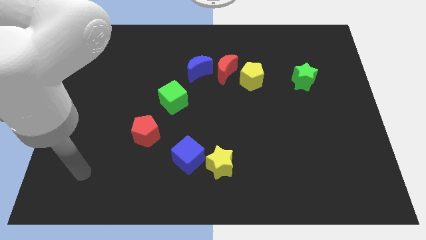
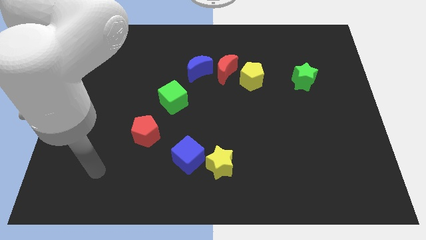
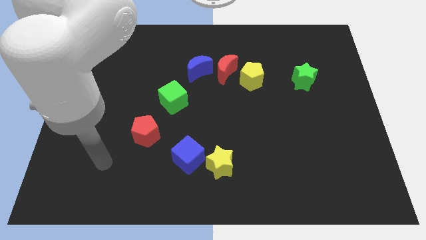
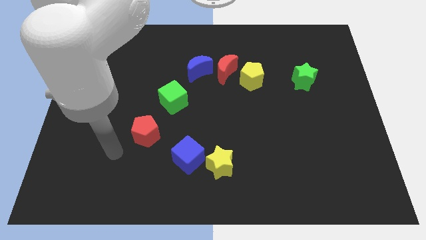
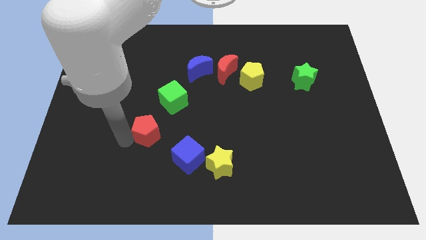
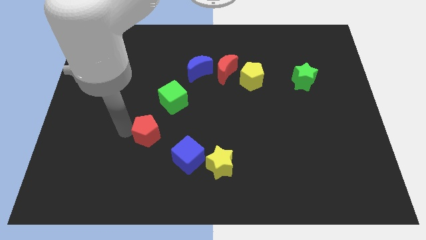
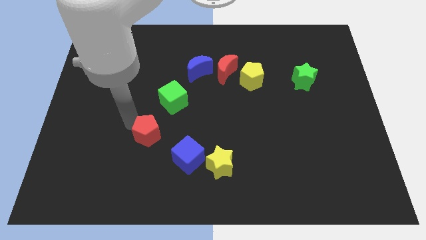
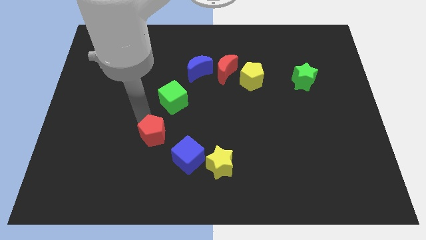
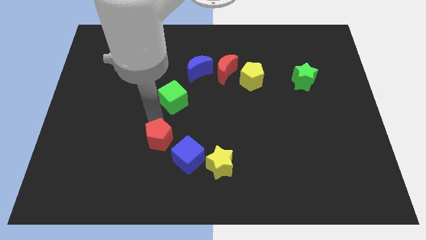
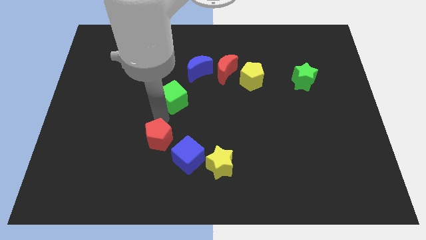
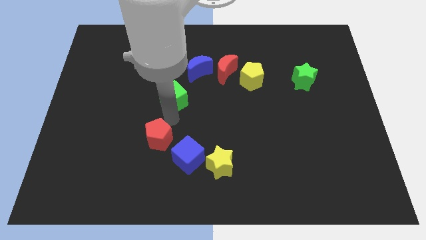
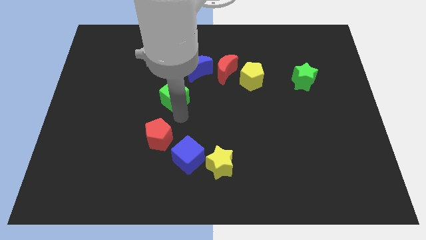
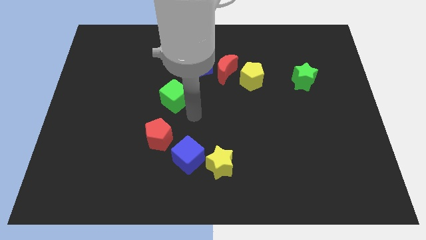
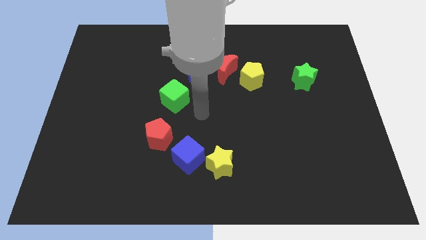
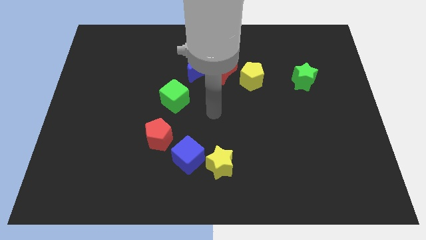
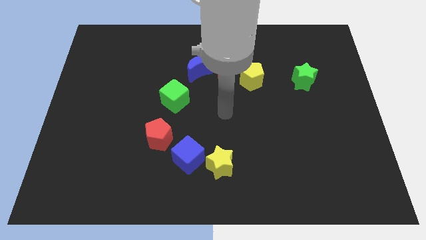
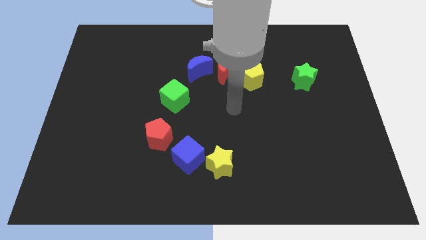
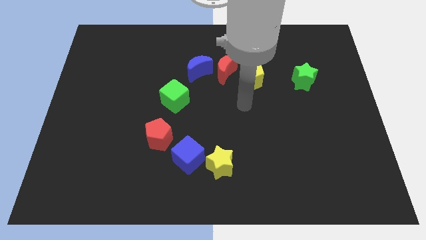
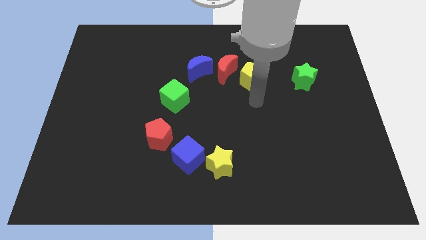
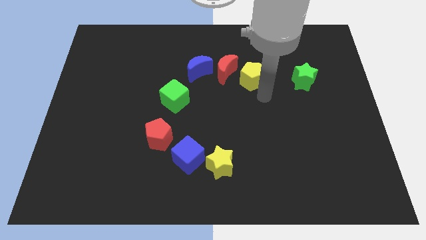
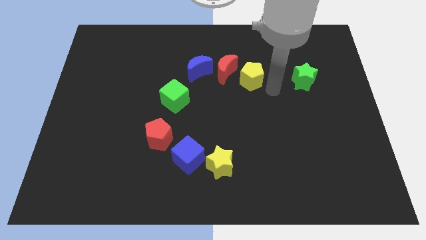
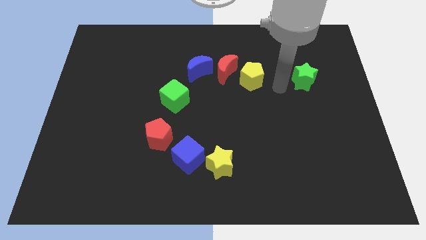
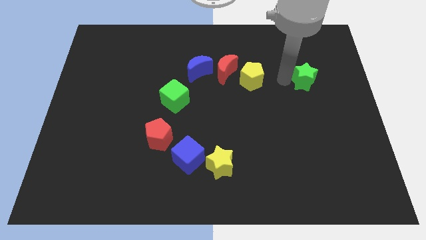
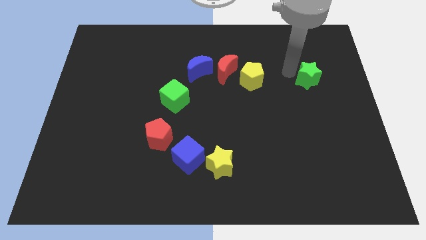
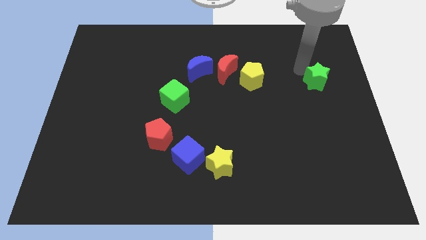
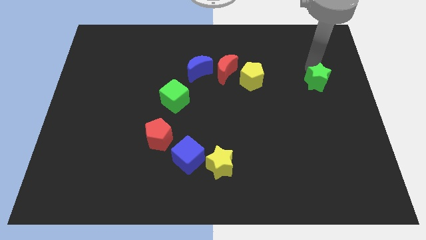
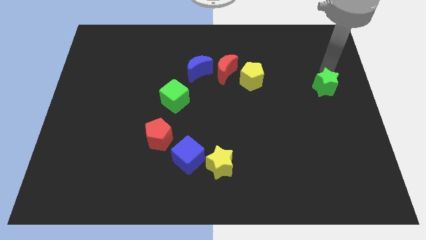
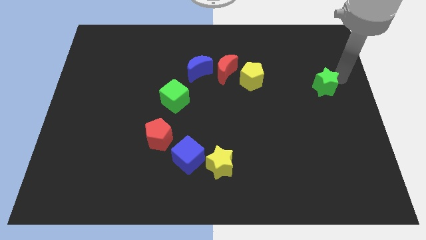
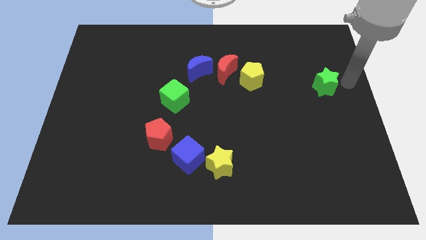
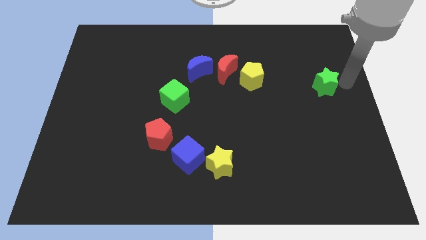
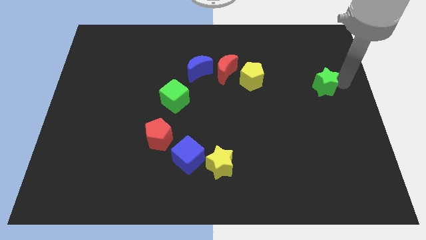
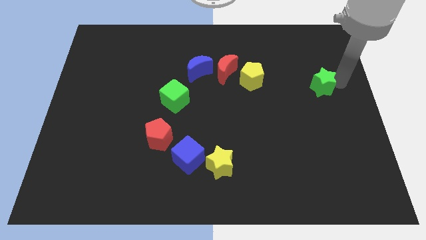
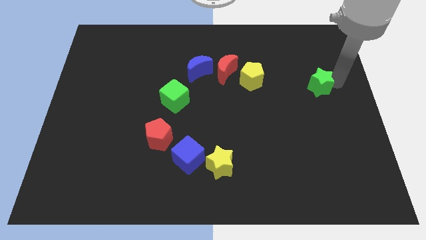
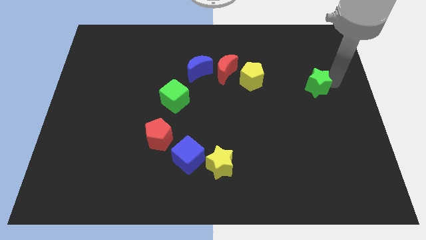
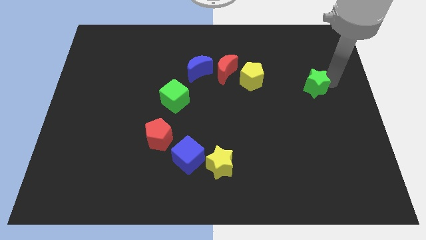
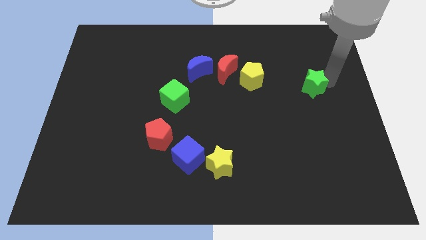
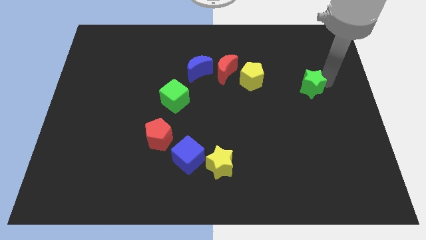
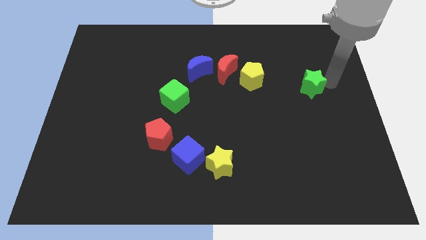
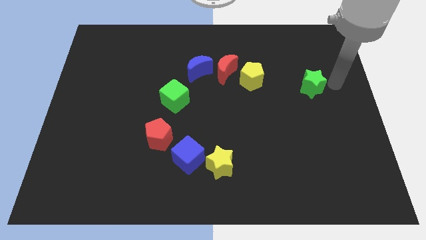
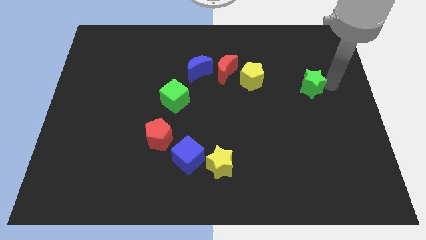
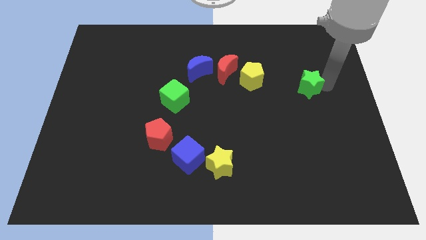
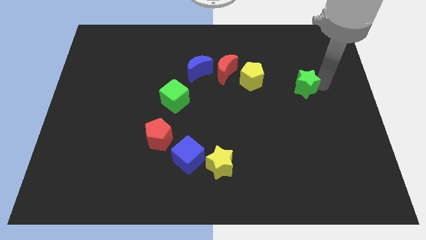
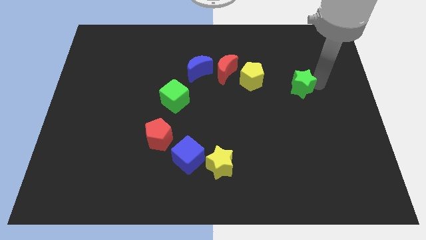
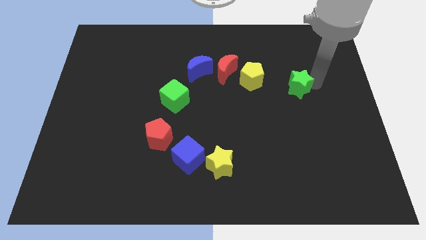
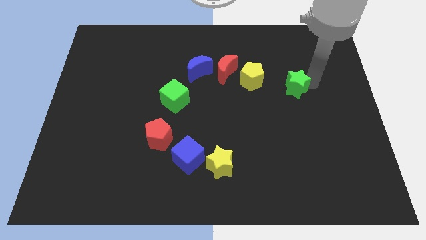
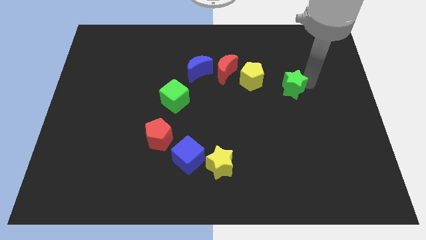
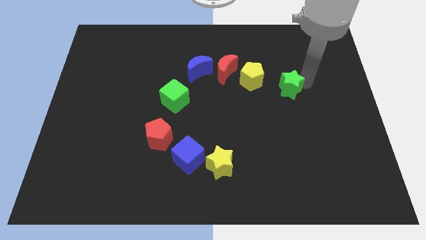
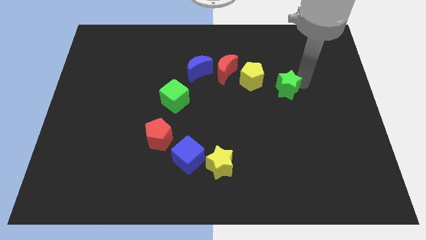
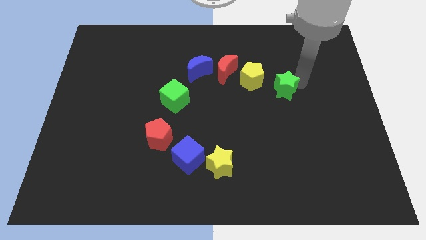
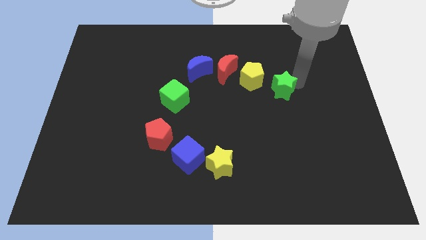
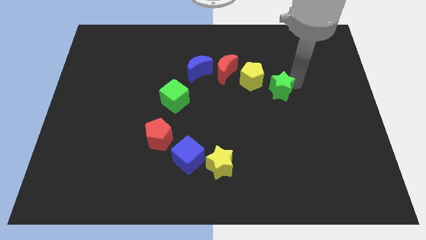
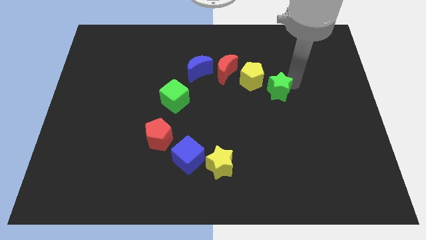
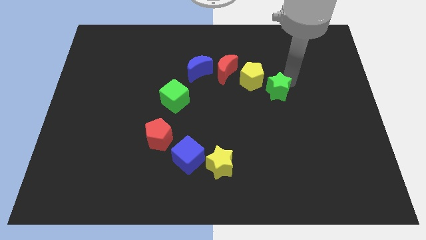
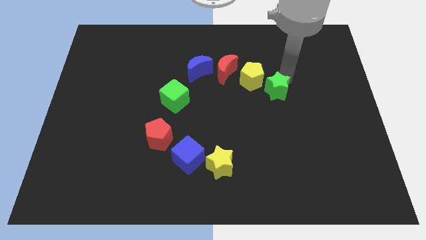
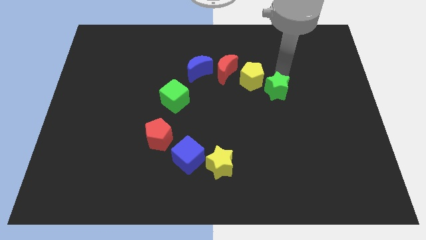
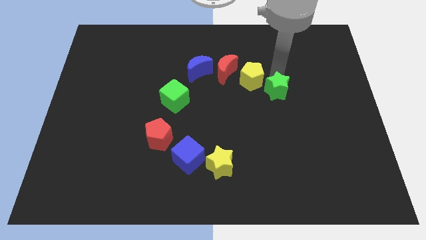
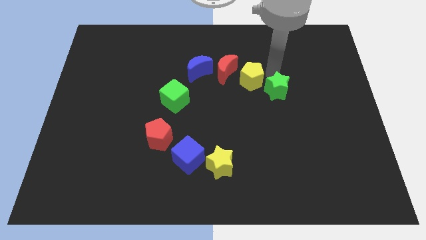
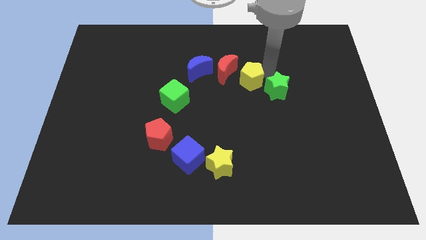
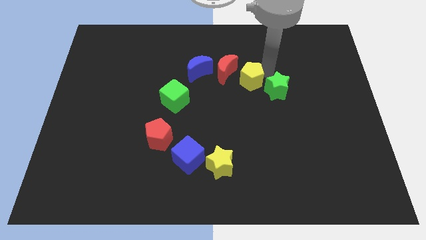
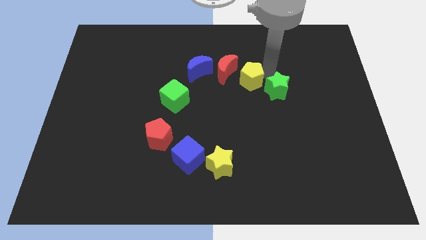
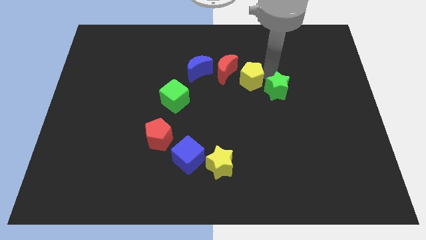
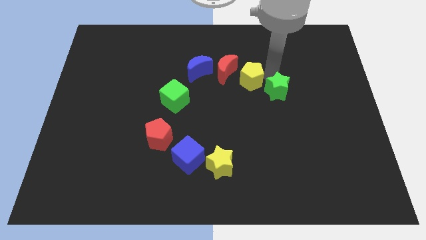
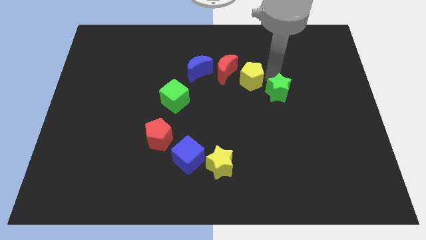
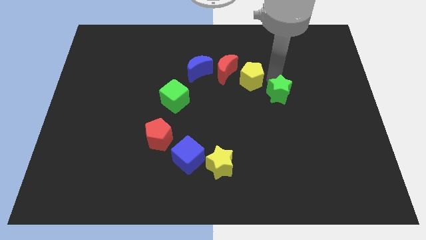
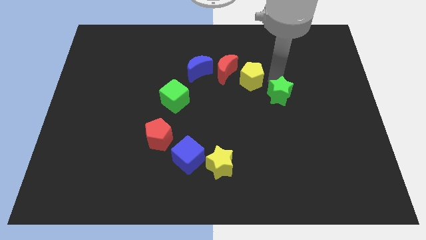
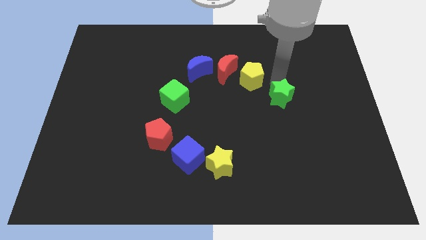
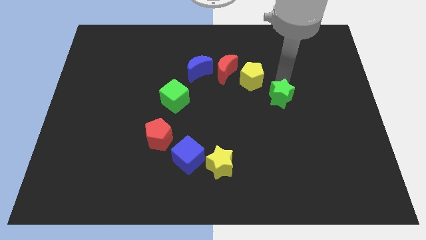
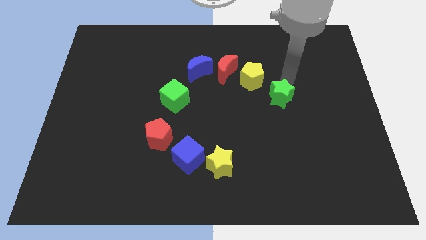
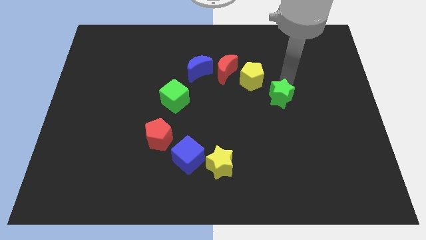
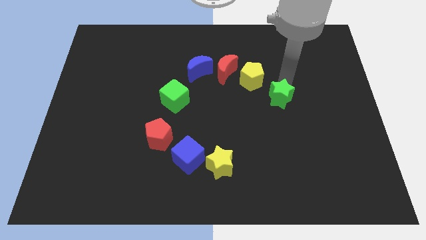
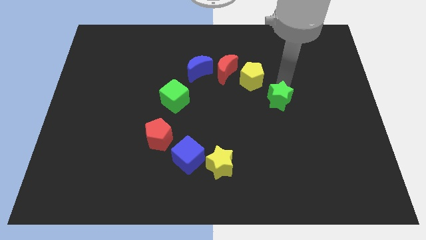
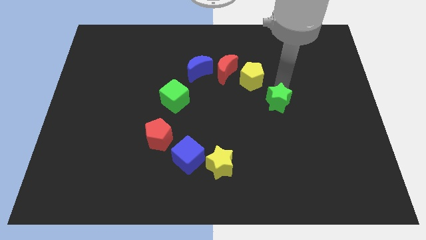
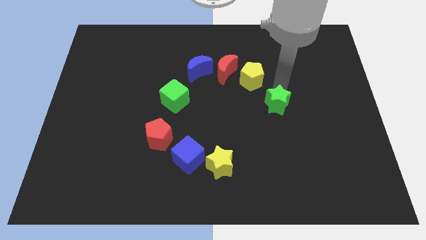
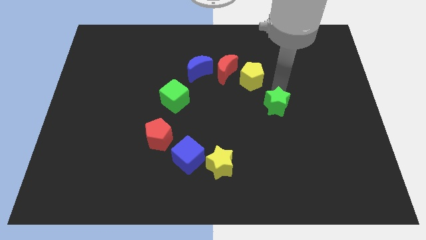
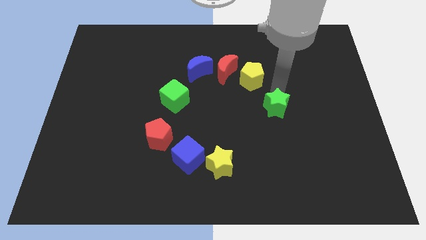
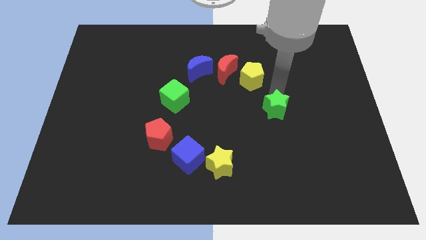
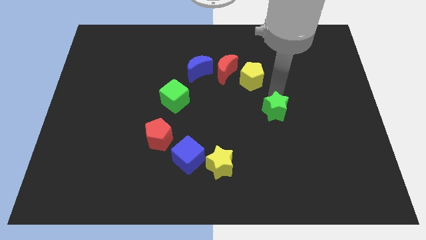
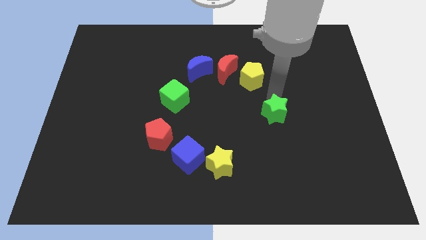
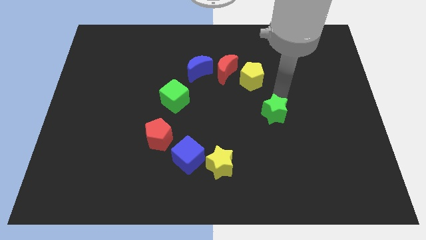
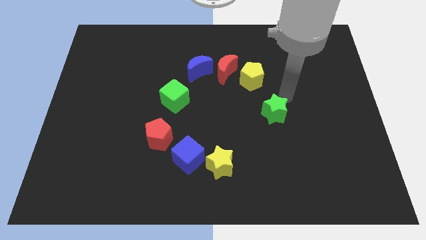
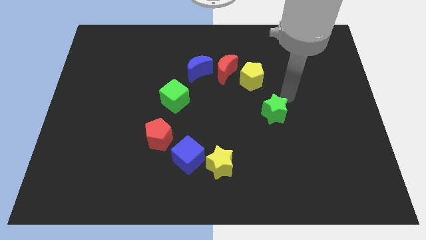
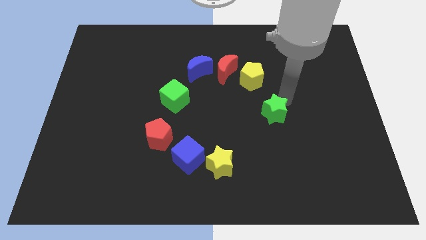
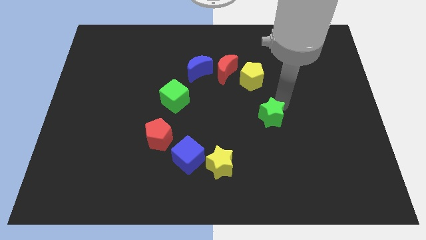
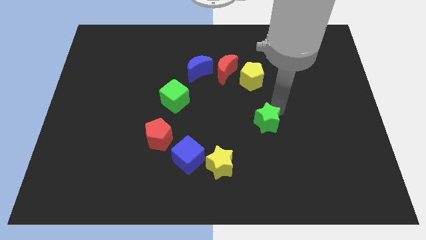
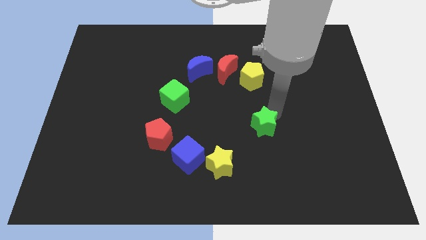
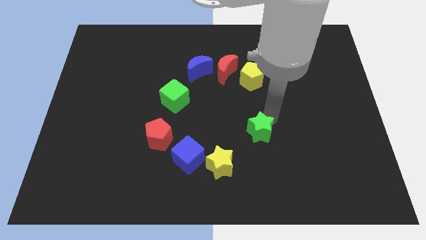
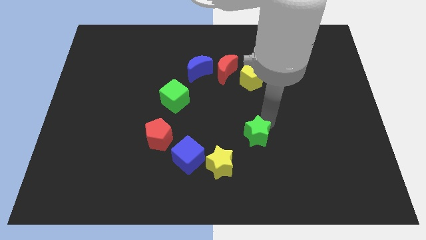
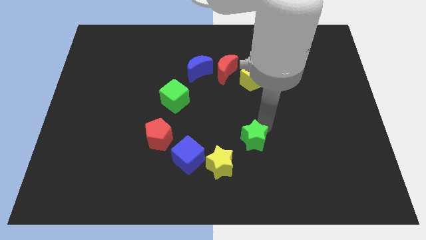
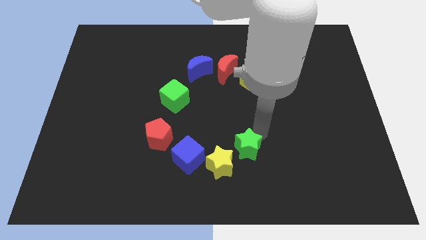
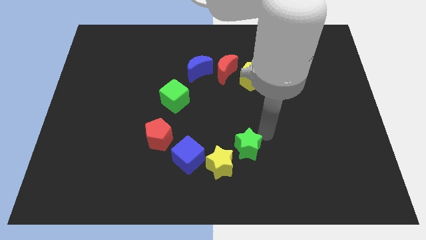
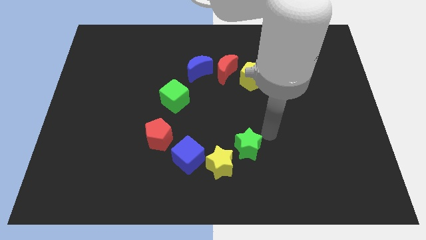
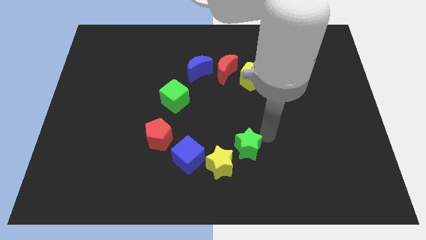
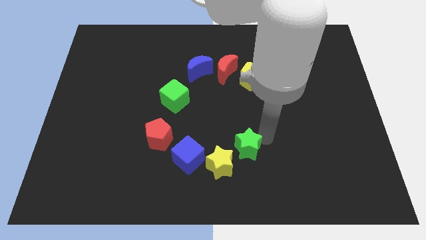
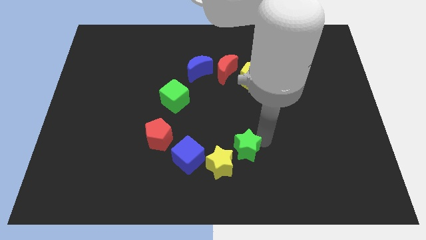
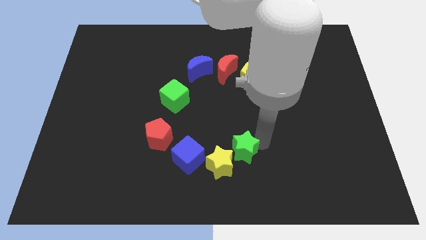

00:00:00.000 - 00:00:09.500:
push the green star towards the yellow star
